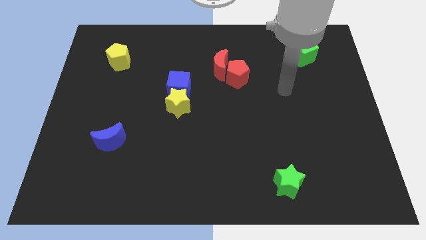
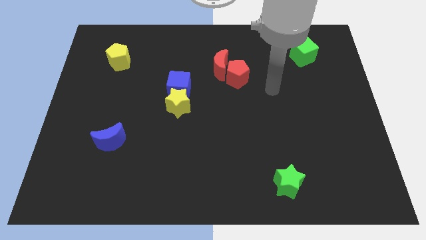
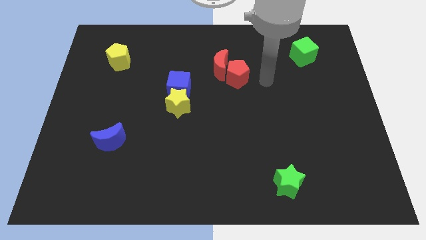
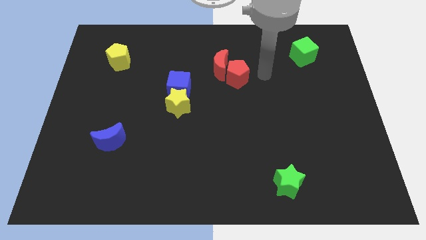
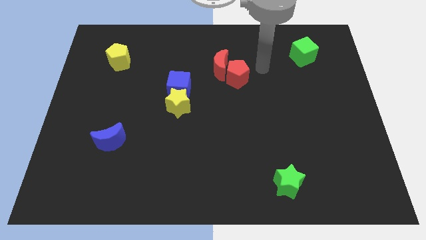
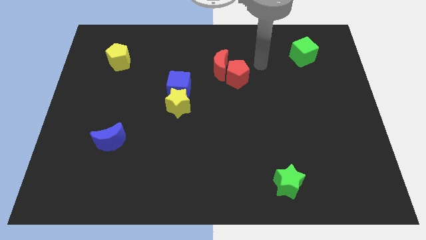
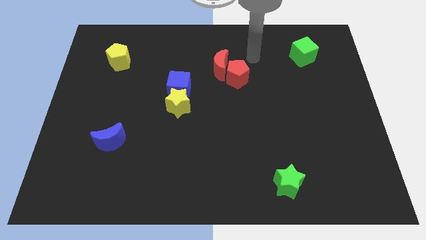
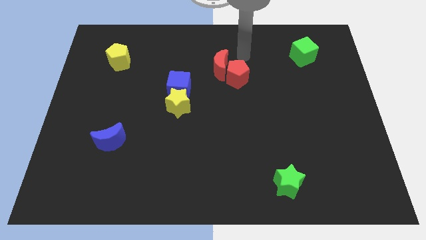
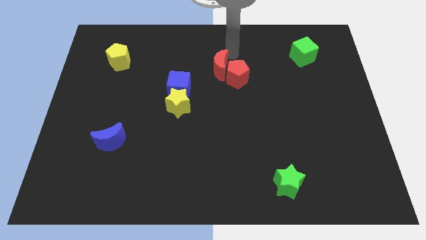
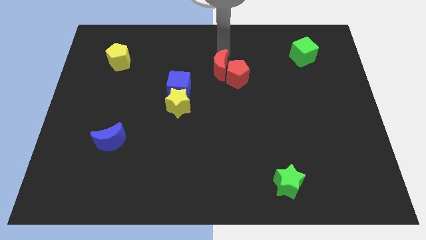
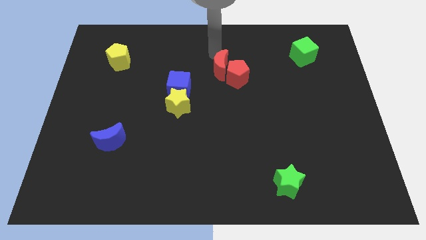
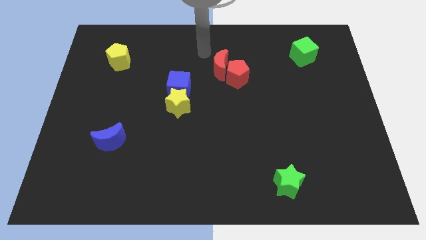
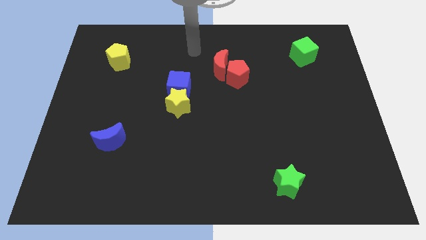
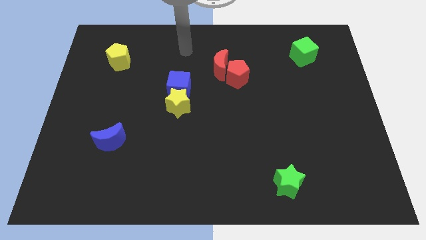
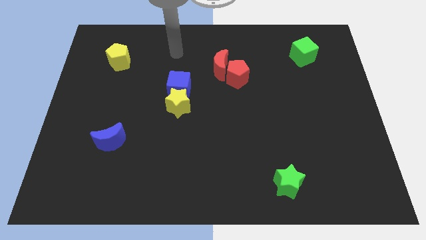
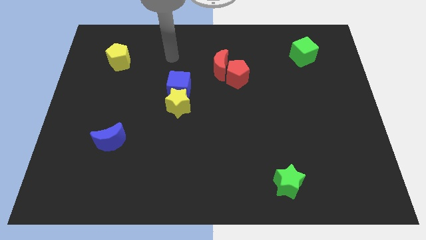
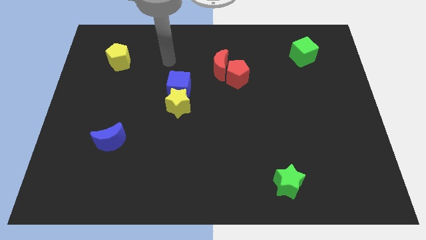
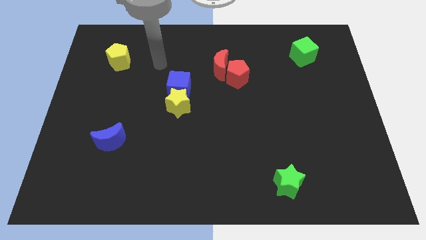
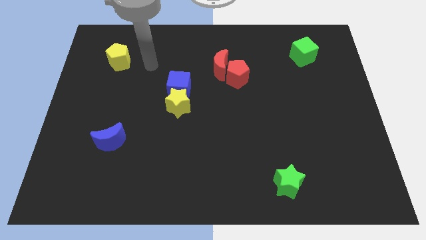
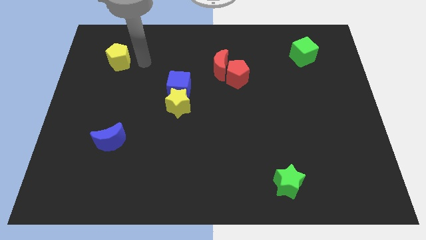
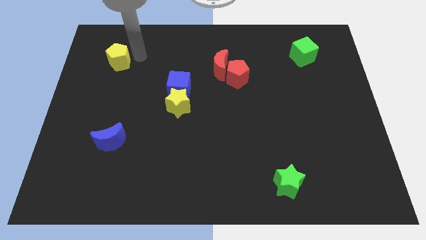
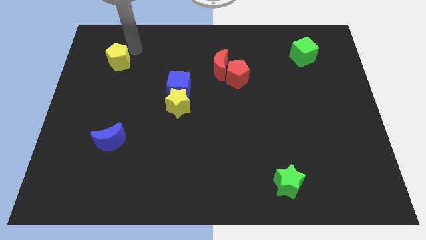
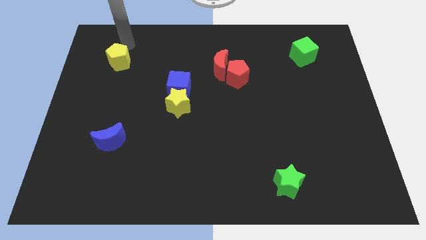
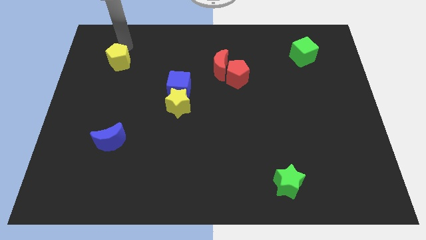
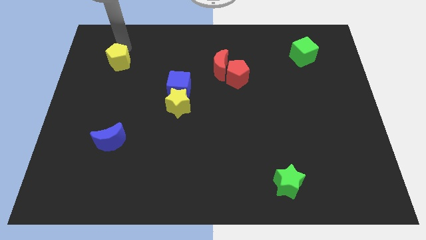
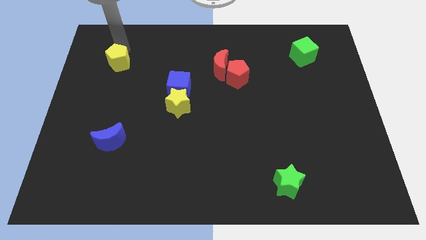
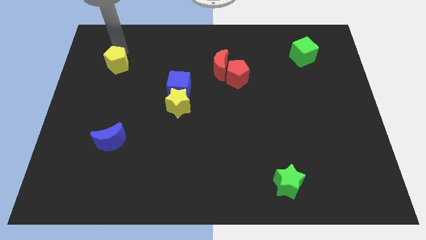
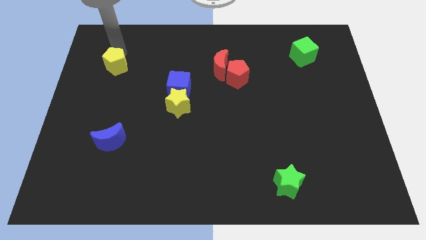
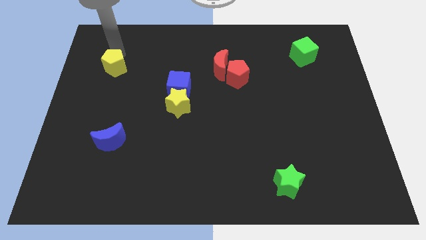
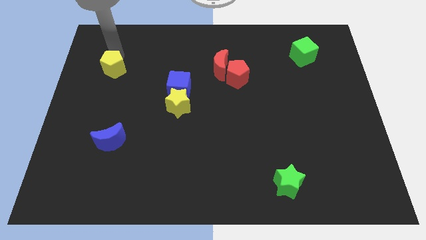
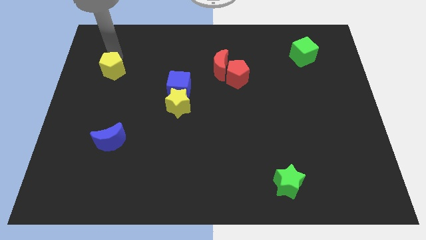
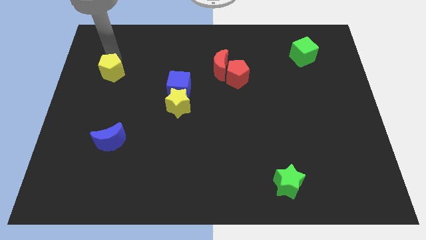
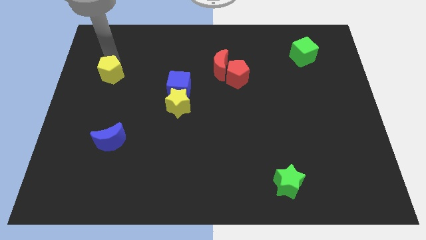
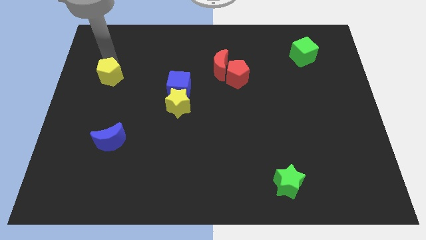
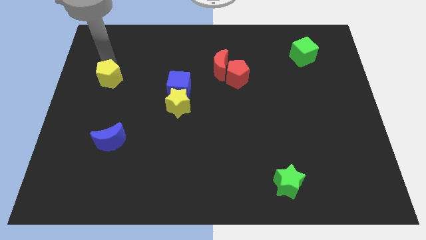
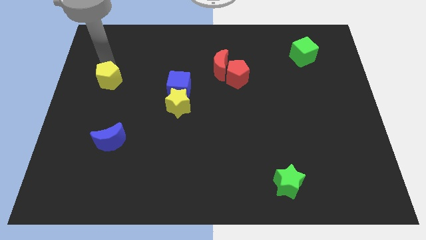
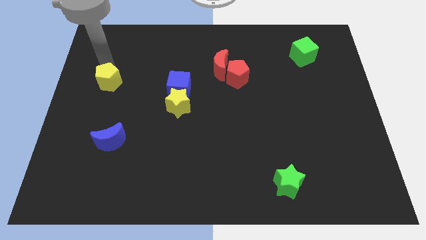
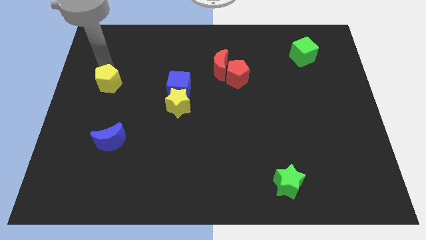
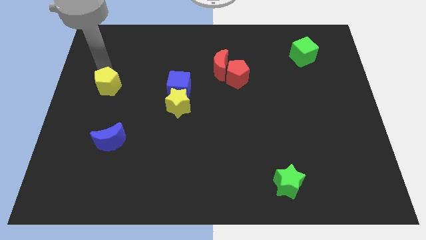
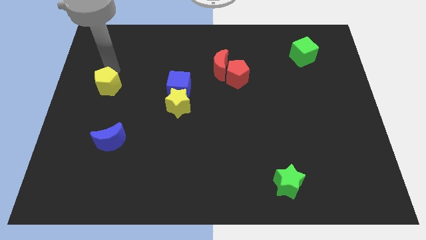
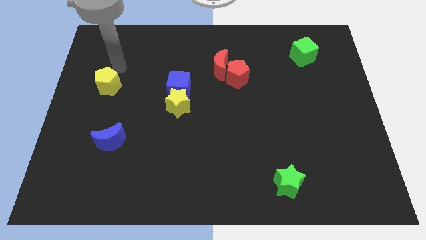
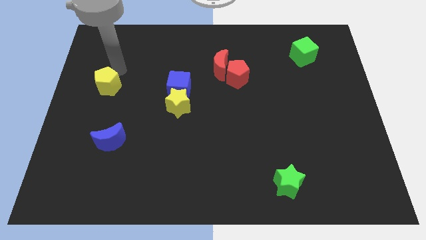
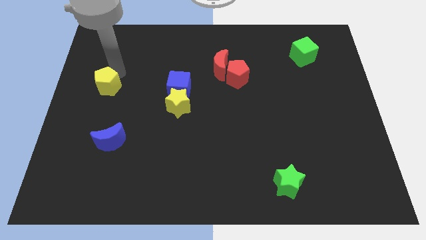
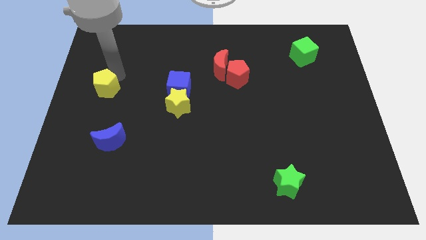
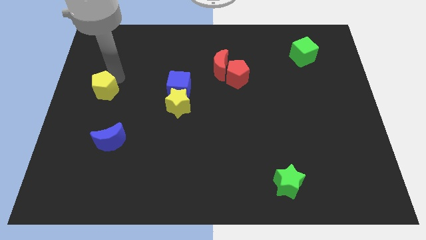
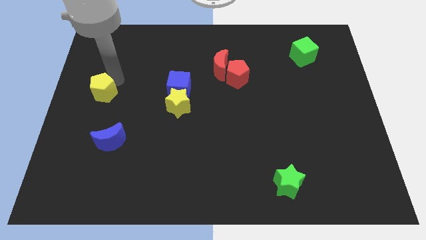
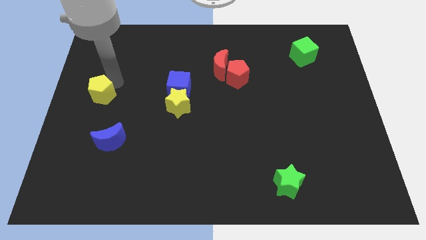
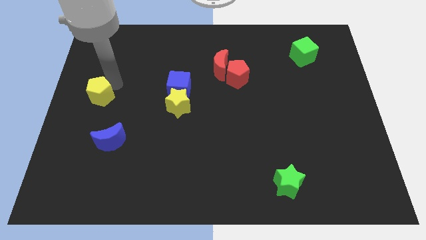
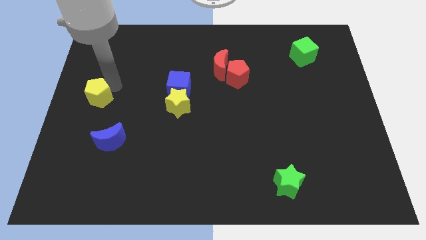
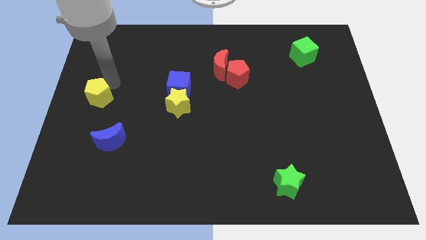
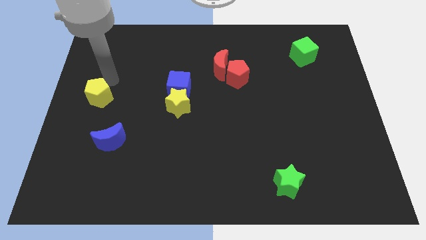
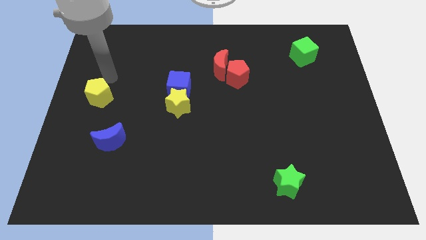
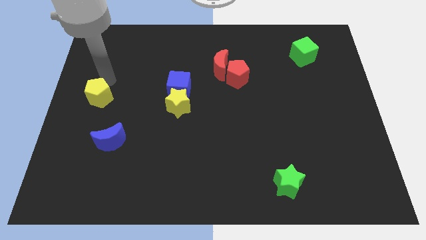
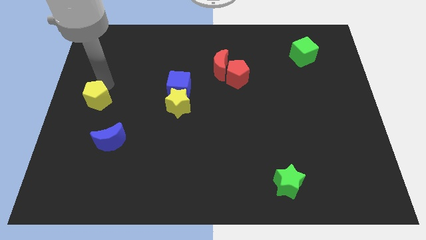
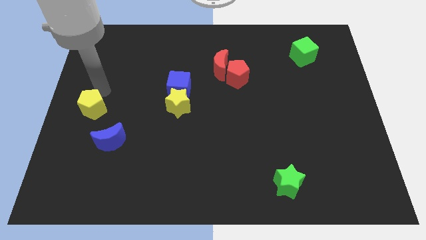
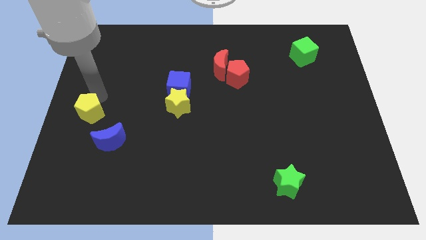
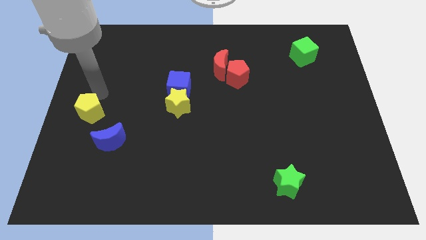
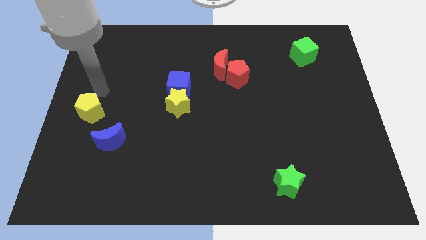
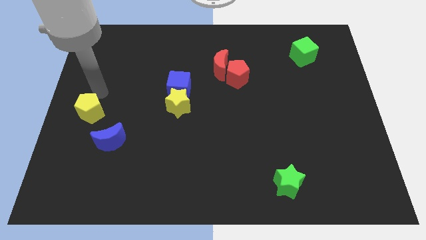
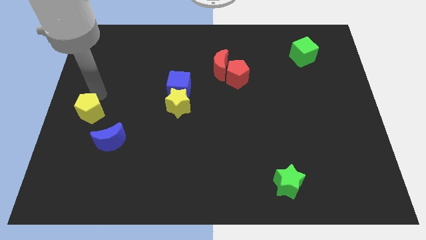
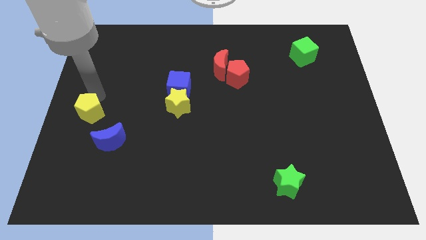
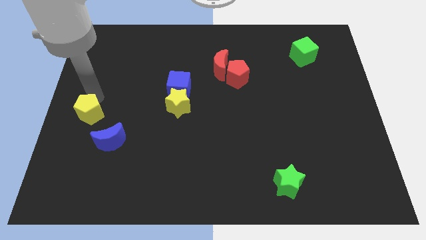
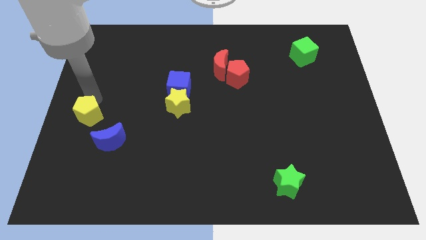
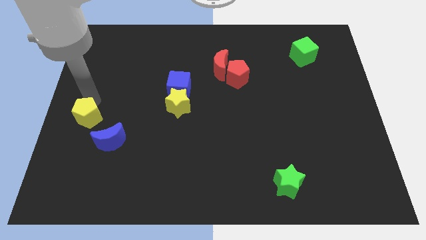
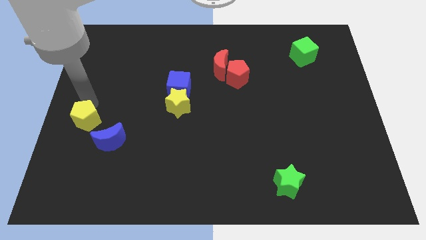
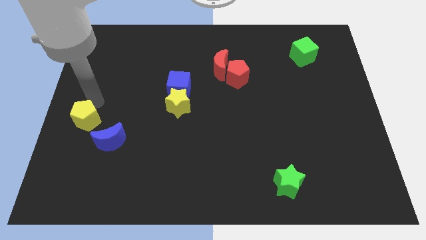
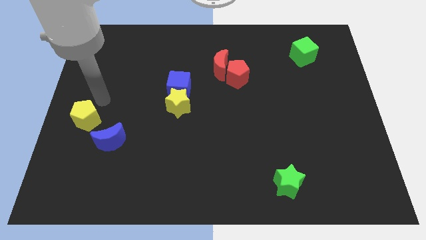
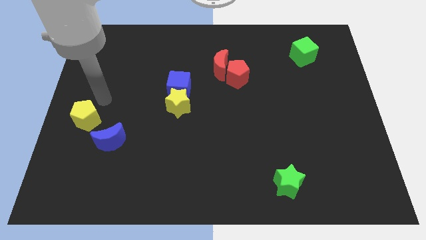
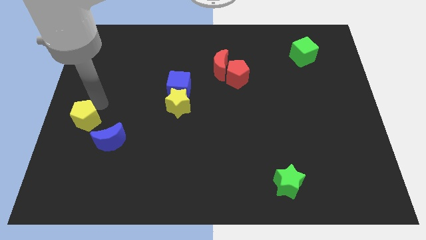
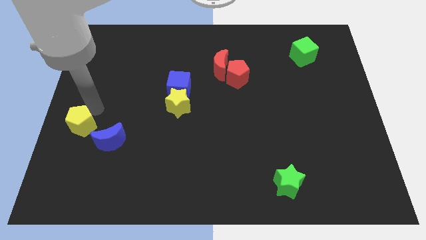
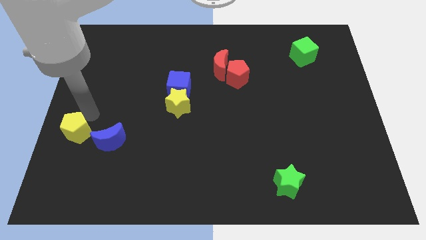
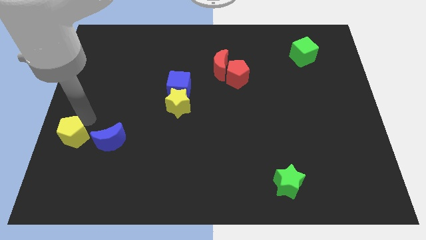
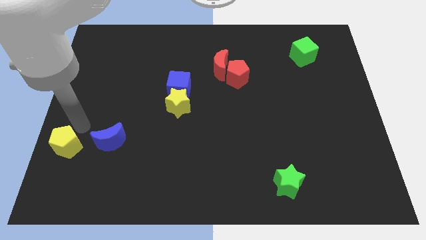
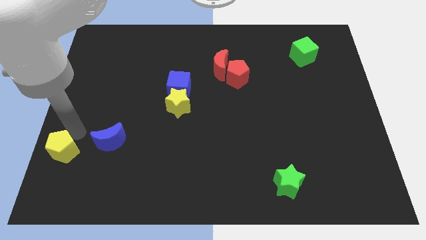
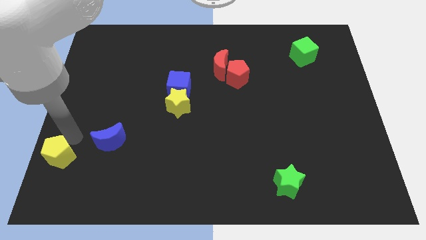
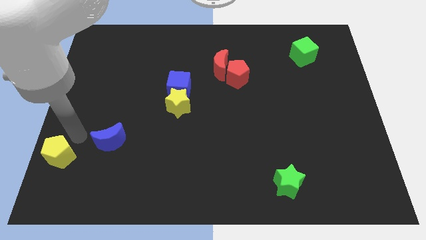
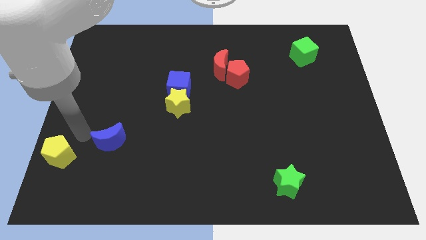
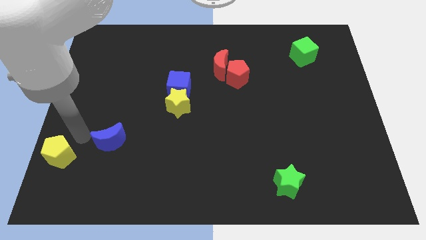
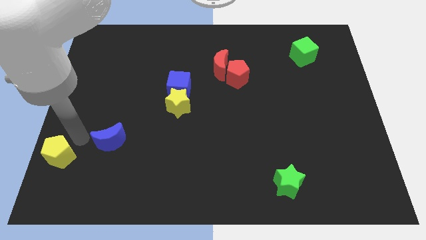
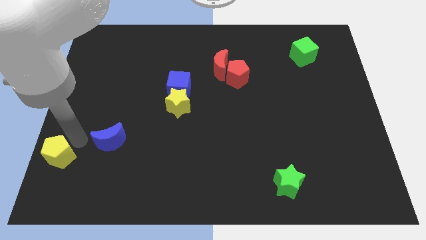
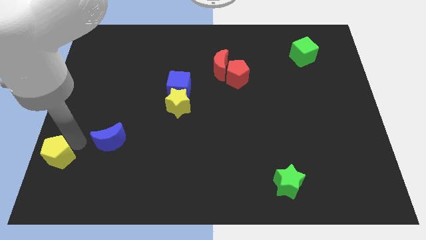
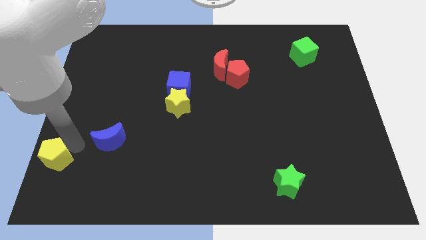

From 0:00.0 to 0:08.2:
move the yellow pentagon to the bottom left corner
